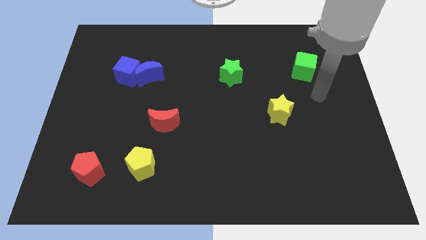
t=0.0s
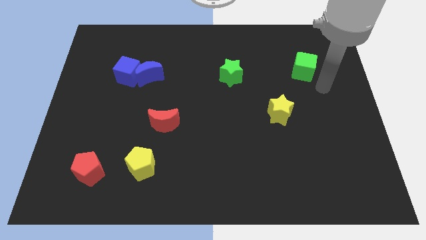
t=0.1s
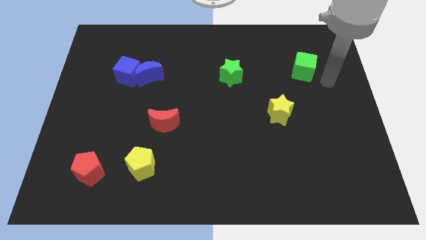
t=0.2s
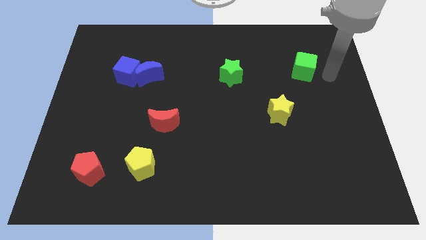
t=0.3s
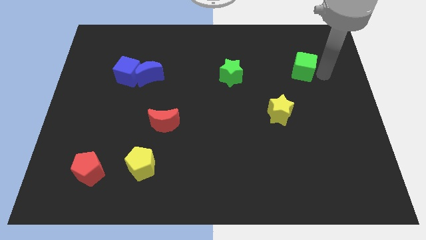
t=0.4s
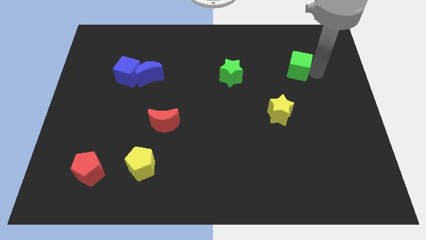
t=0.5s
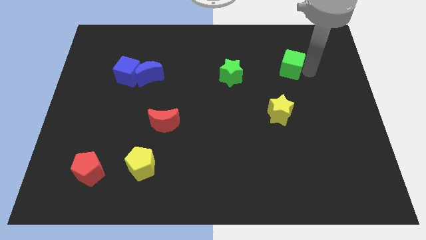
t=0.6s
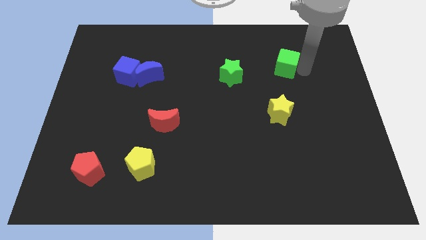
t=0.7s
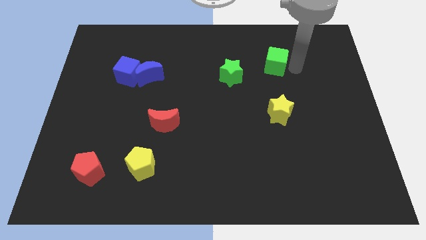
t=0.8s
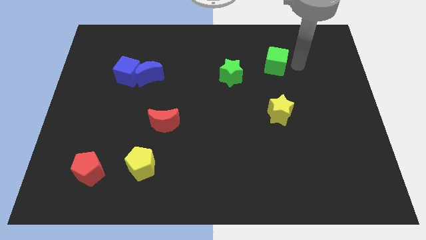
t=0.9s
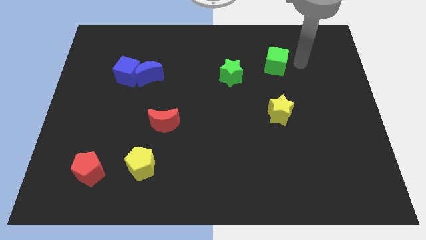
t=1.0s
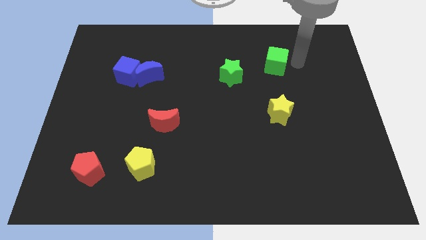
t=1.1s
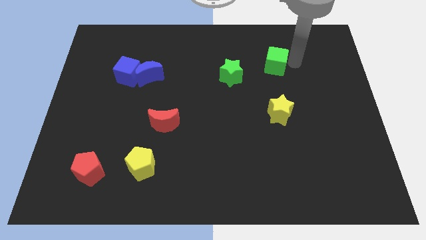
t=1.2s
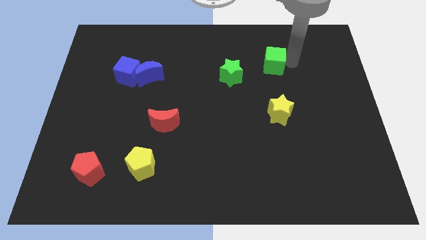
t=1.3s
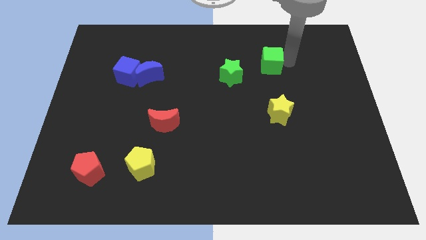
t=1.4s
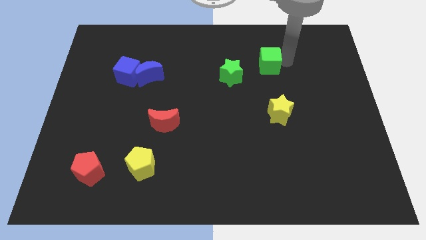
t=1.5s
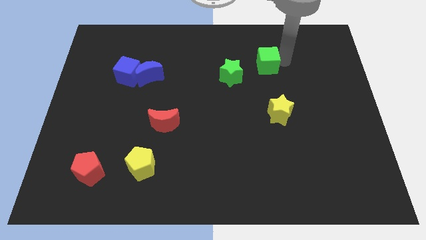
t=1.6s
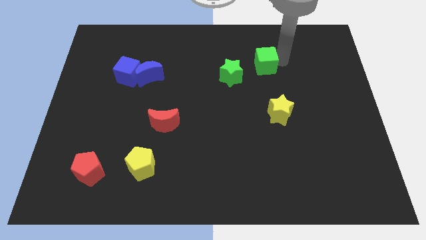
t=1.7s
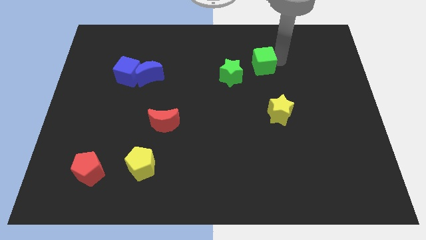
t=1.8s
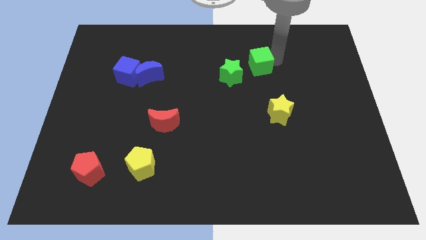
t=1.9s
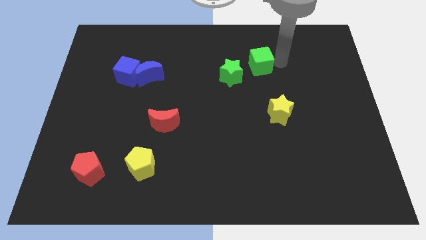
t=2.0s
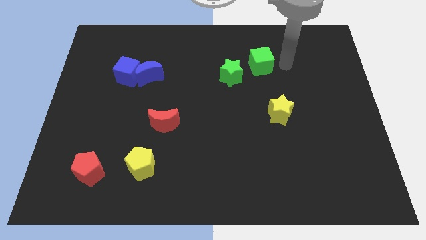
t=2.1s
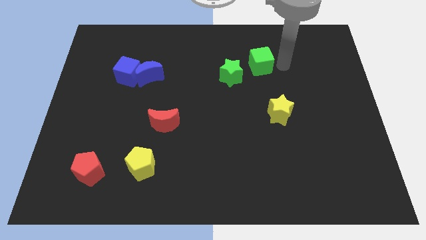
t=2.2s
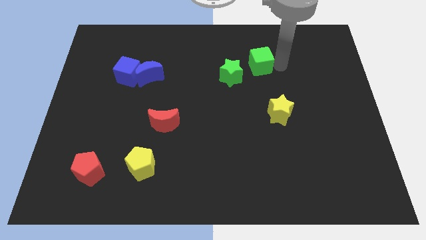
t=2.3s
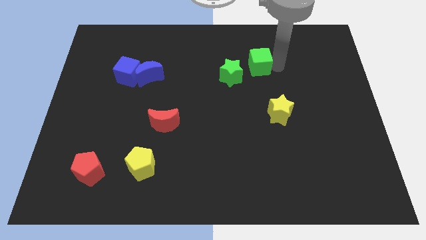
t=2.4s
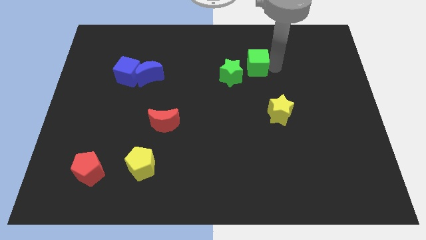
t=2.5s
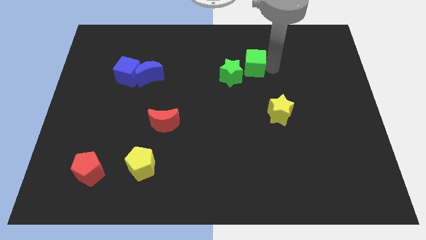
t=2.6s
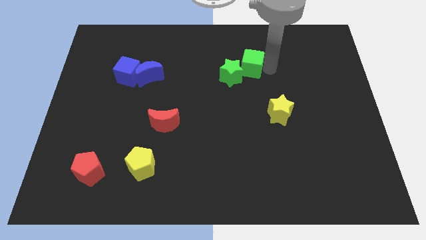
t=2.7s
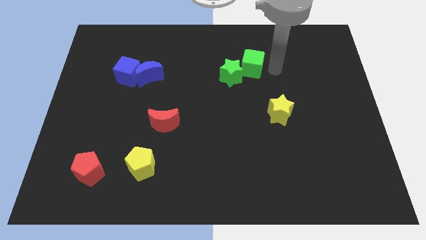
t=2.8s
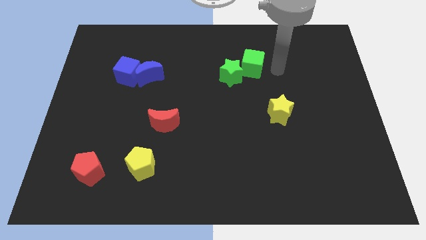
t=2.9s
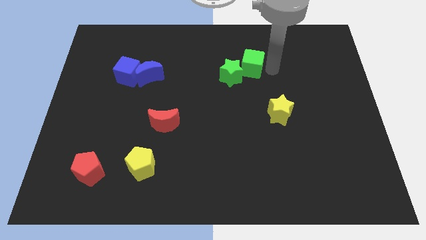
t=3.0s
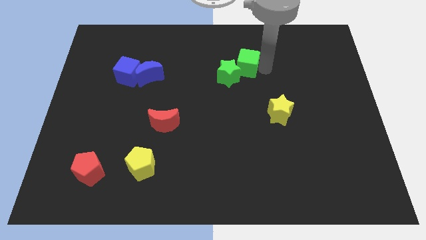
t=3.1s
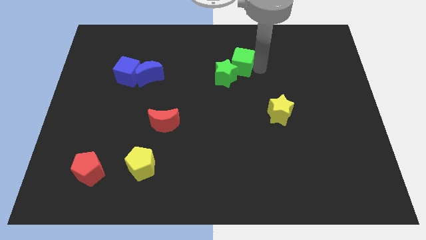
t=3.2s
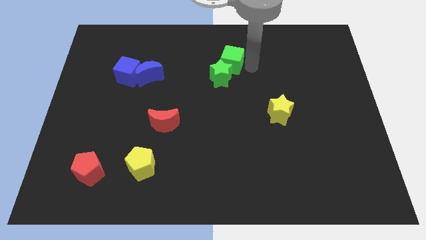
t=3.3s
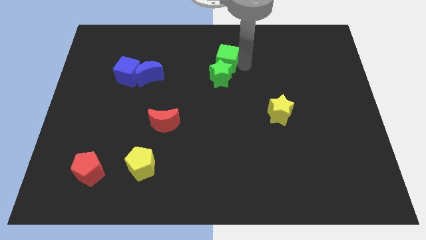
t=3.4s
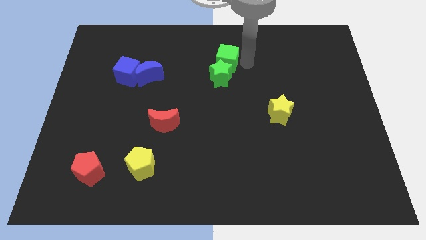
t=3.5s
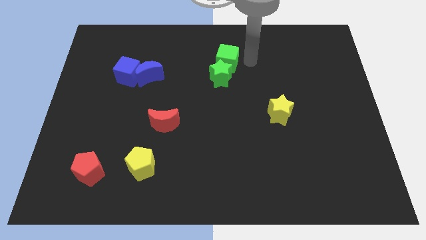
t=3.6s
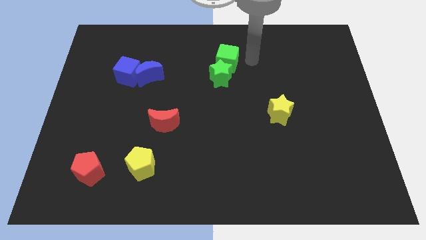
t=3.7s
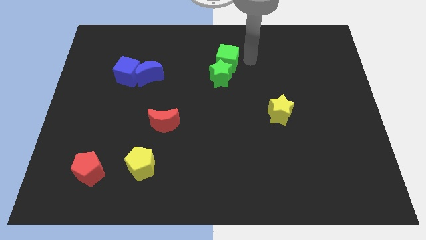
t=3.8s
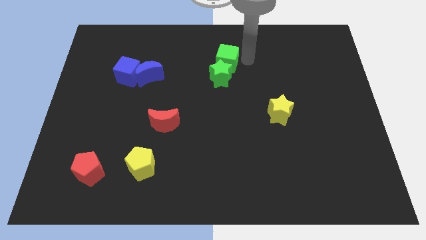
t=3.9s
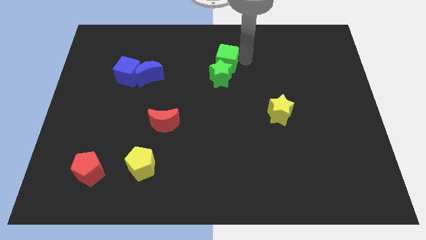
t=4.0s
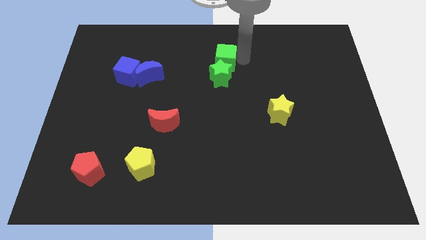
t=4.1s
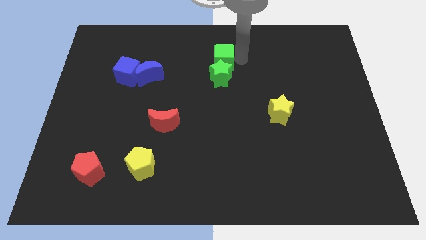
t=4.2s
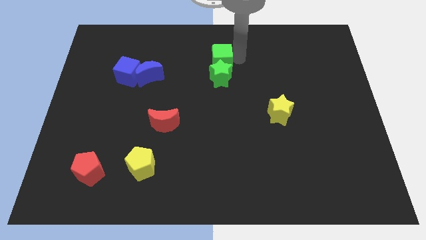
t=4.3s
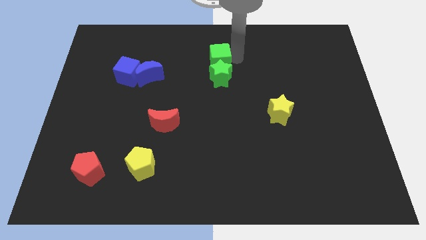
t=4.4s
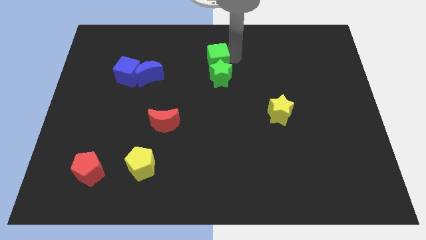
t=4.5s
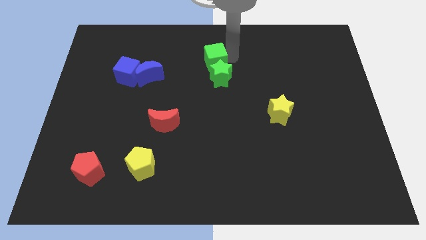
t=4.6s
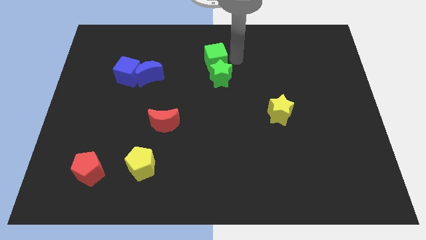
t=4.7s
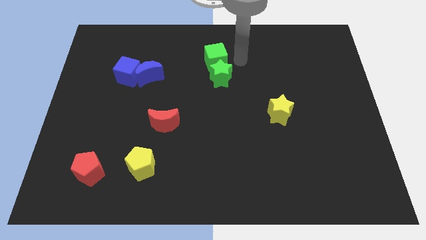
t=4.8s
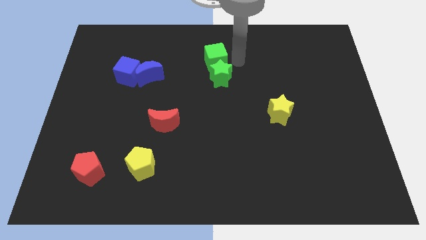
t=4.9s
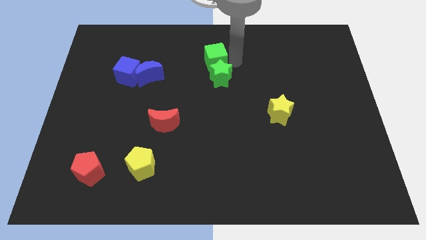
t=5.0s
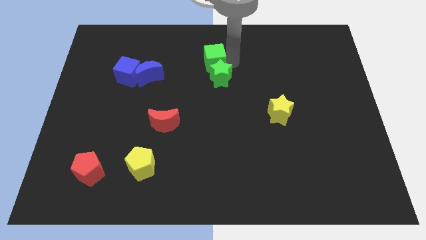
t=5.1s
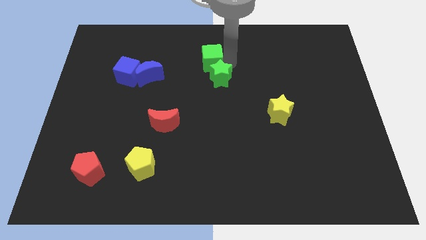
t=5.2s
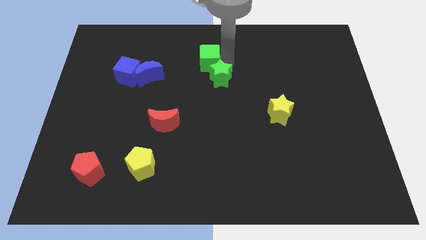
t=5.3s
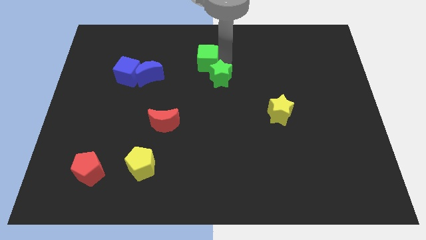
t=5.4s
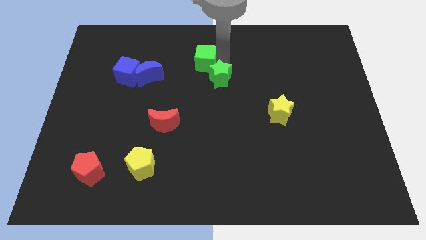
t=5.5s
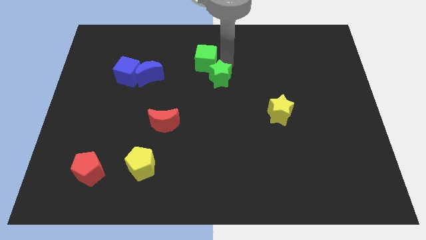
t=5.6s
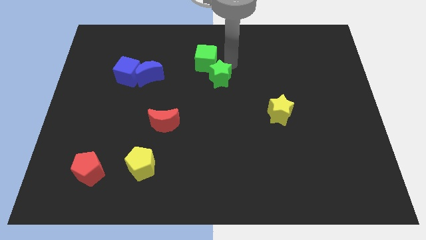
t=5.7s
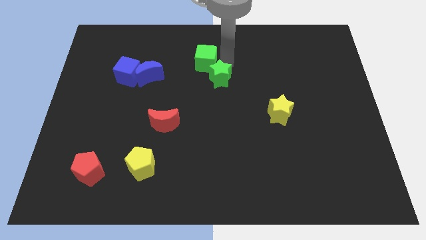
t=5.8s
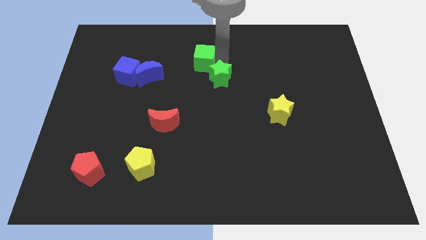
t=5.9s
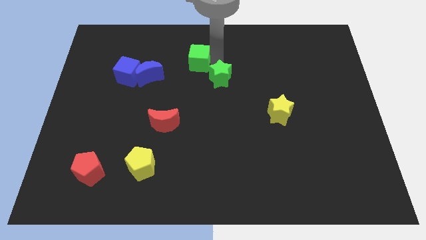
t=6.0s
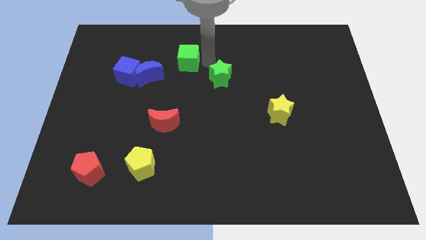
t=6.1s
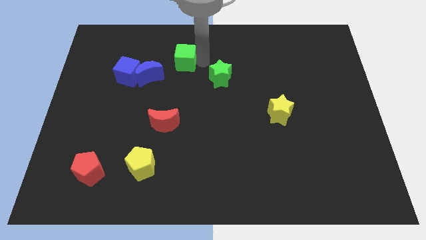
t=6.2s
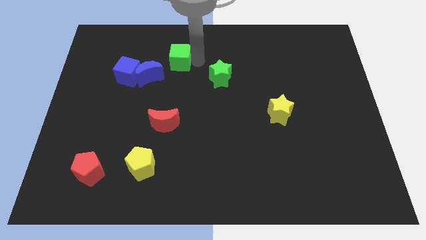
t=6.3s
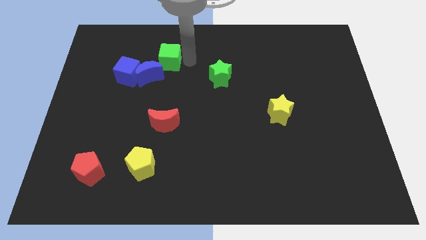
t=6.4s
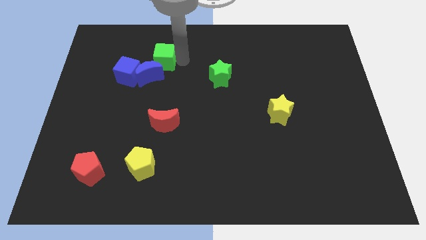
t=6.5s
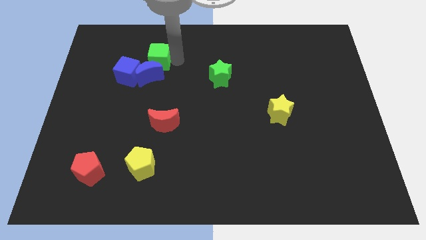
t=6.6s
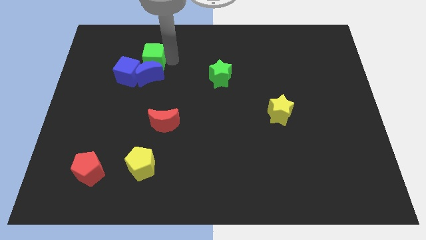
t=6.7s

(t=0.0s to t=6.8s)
slide the green cube to the top left side of the blue moon

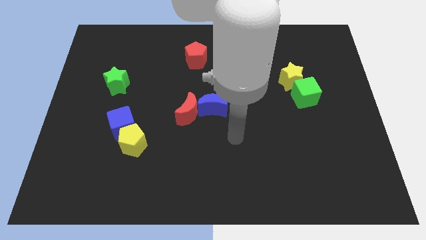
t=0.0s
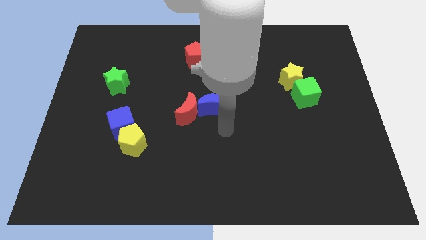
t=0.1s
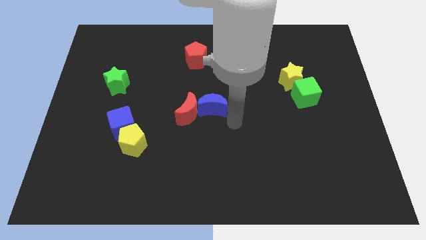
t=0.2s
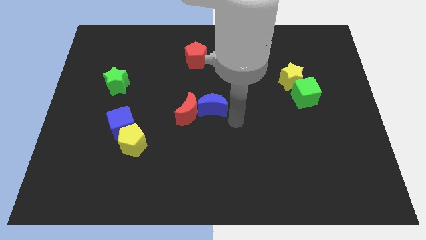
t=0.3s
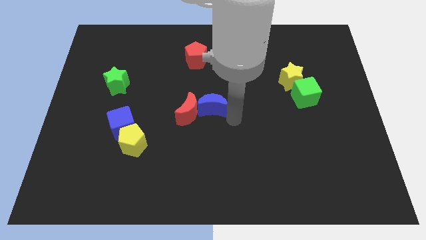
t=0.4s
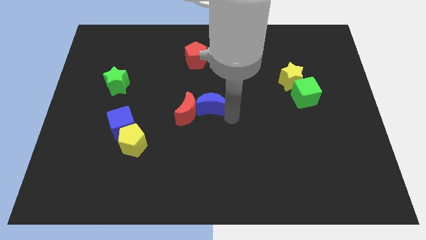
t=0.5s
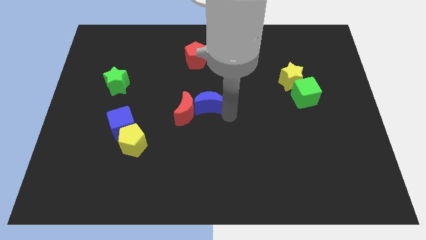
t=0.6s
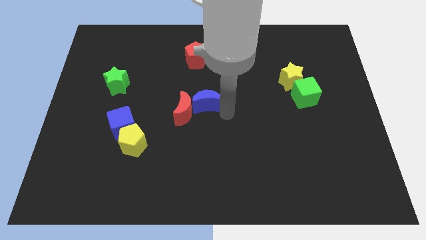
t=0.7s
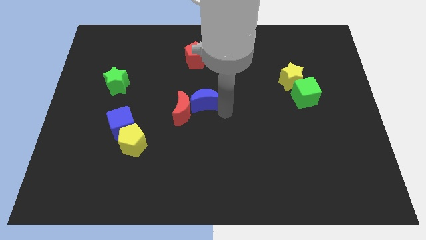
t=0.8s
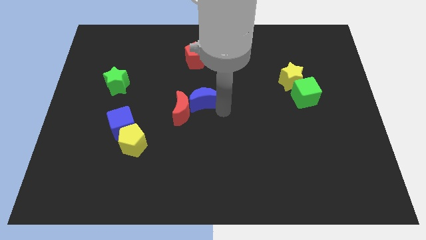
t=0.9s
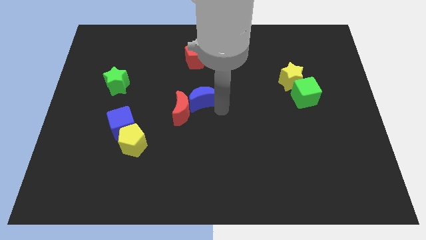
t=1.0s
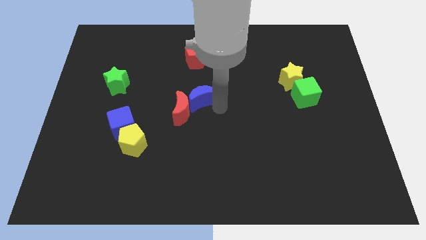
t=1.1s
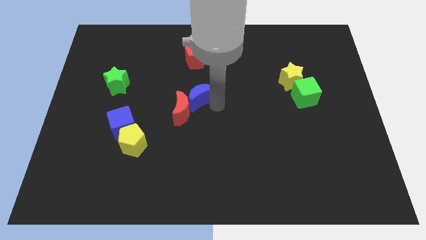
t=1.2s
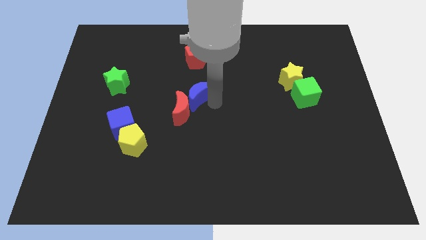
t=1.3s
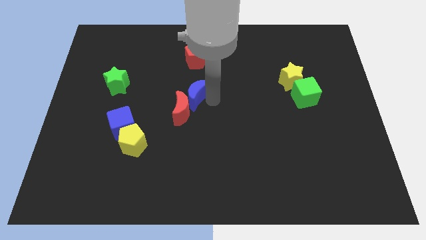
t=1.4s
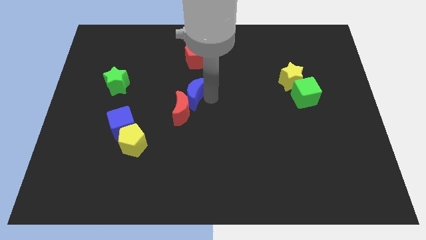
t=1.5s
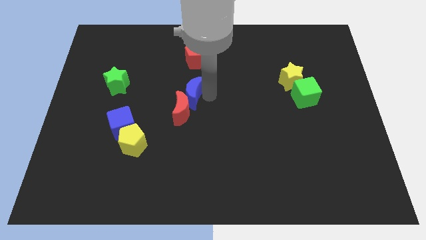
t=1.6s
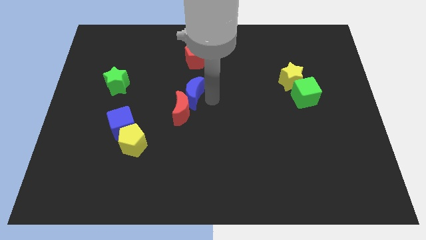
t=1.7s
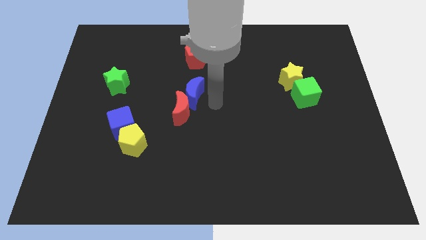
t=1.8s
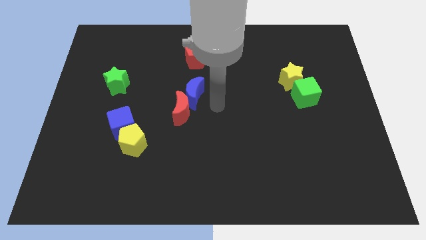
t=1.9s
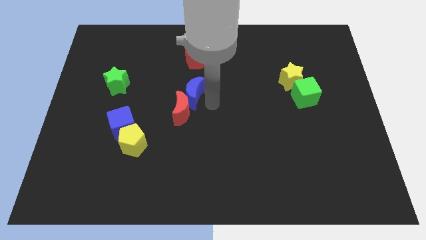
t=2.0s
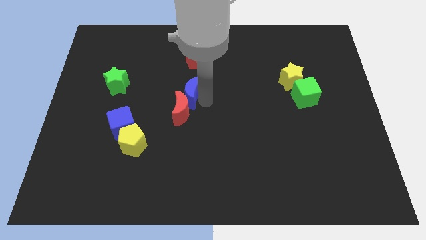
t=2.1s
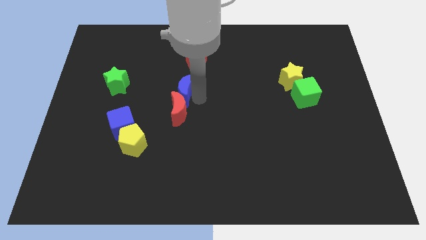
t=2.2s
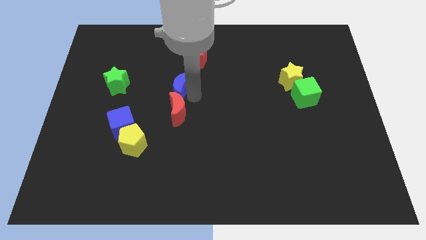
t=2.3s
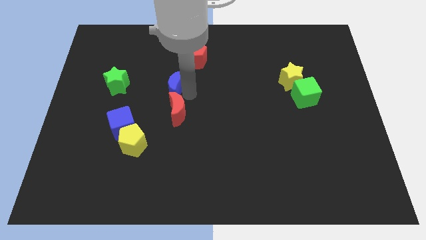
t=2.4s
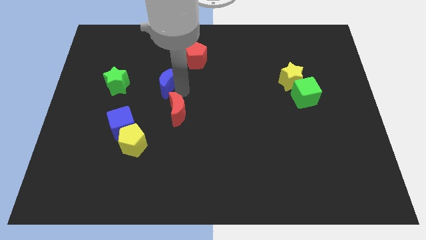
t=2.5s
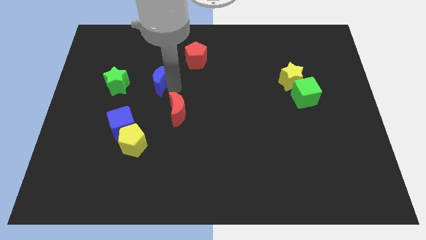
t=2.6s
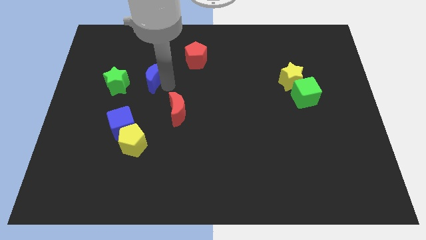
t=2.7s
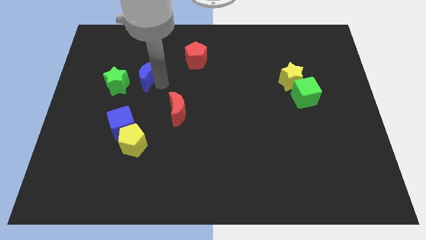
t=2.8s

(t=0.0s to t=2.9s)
slide the blue moon diagonally up and to the right of the green star
